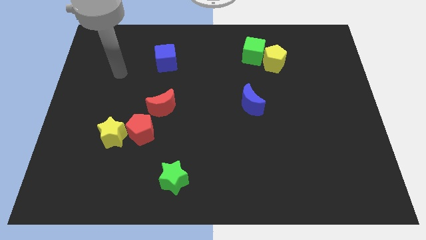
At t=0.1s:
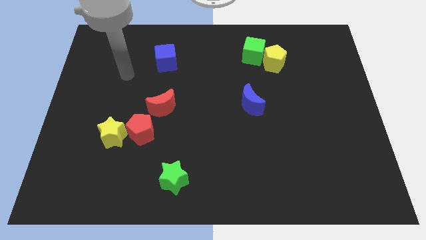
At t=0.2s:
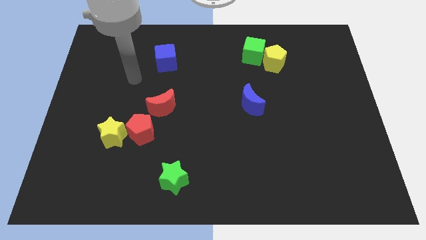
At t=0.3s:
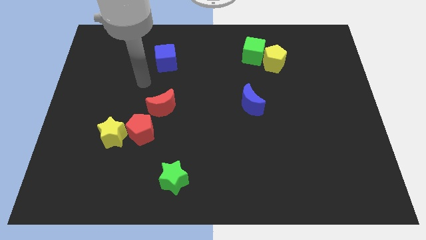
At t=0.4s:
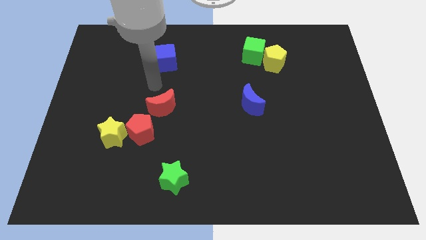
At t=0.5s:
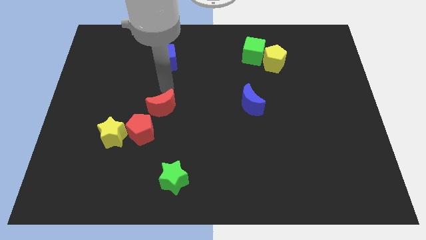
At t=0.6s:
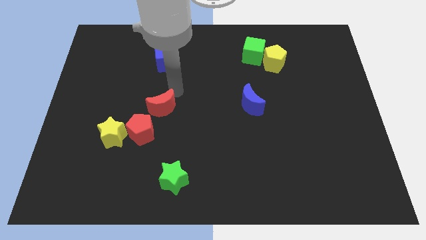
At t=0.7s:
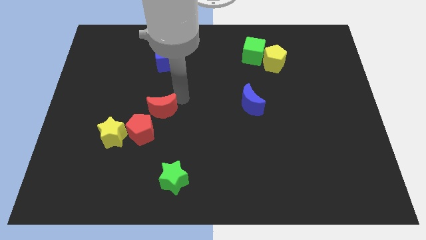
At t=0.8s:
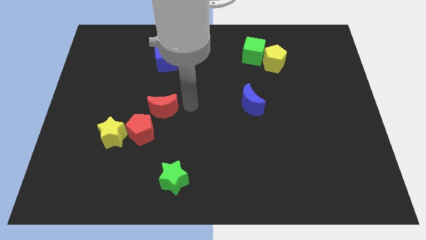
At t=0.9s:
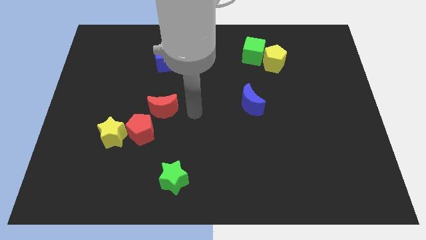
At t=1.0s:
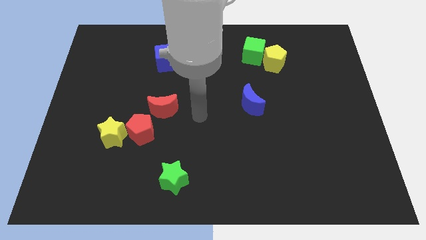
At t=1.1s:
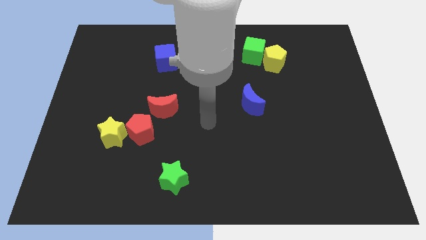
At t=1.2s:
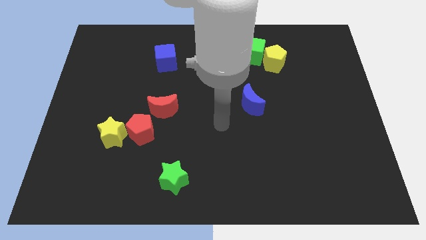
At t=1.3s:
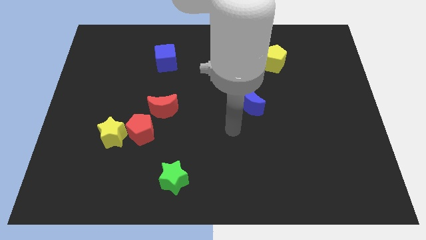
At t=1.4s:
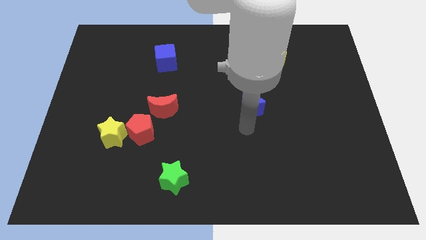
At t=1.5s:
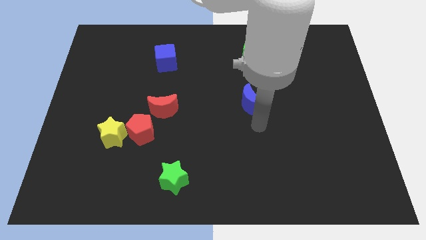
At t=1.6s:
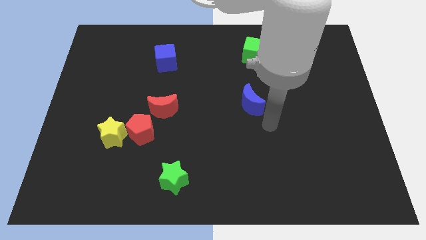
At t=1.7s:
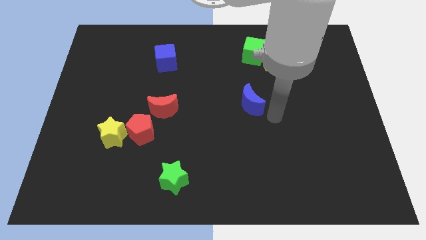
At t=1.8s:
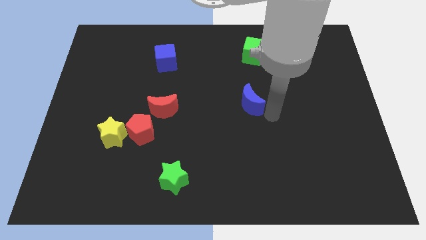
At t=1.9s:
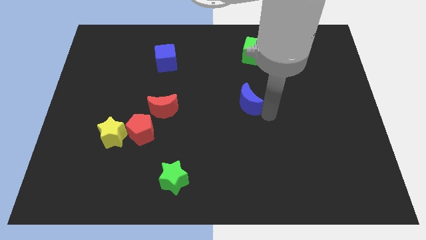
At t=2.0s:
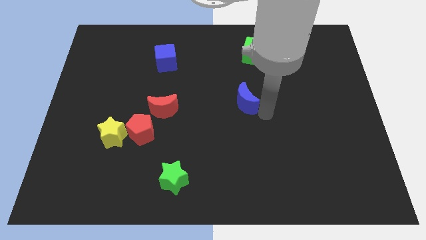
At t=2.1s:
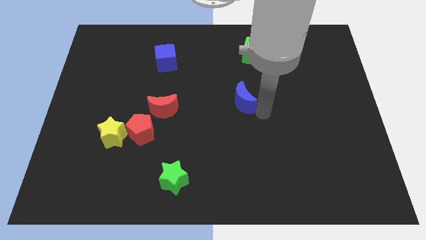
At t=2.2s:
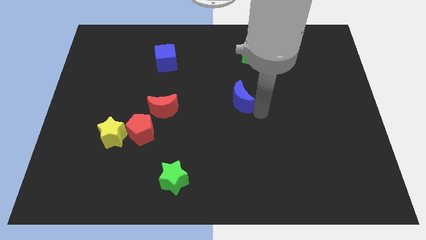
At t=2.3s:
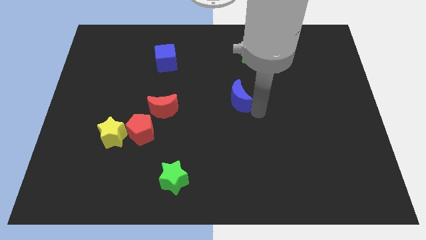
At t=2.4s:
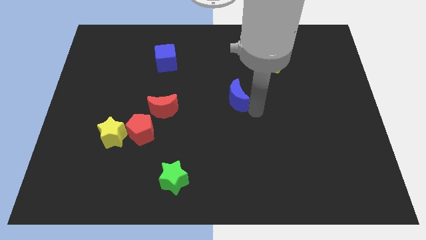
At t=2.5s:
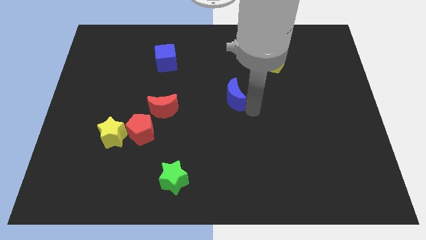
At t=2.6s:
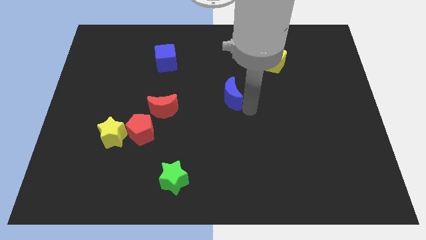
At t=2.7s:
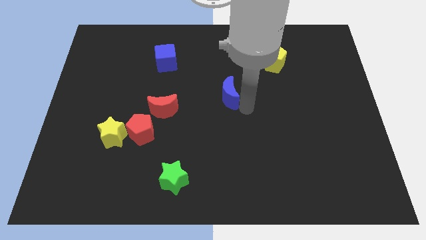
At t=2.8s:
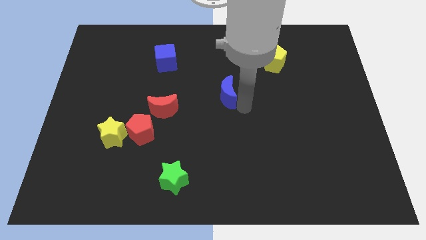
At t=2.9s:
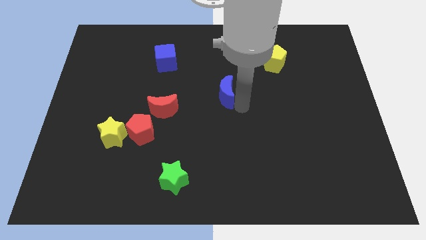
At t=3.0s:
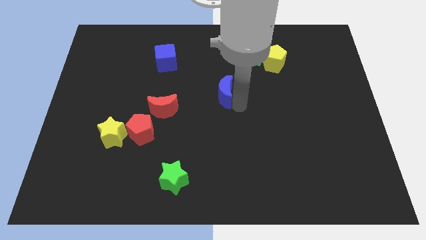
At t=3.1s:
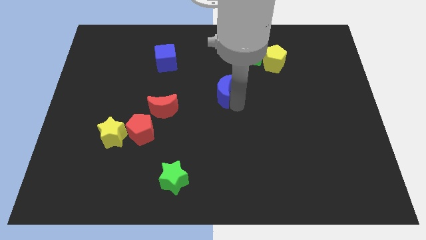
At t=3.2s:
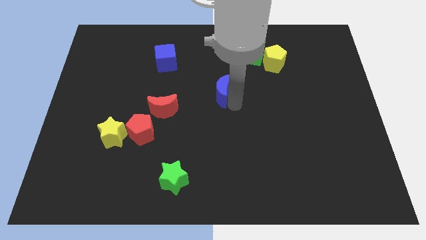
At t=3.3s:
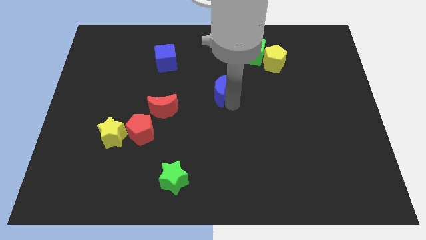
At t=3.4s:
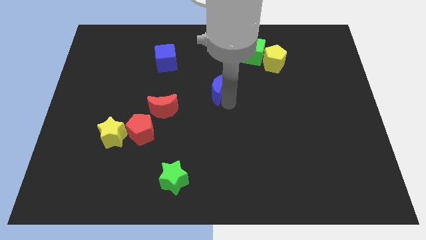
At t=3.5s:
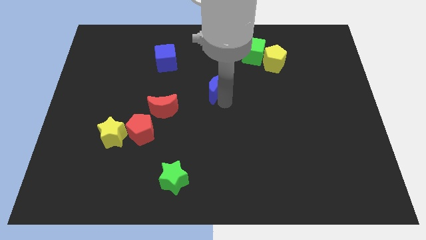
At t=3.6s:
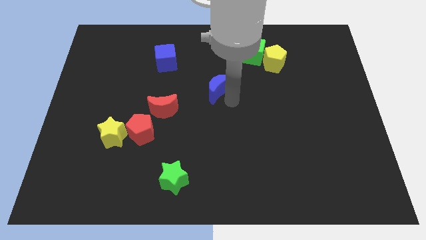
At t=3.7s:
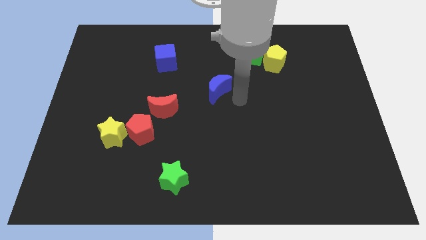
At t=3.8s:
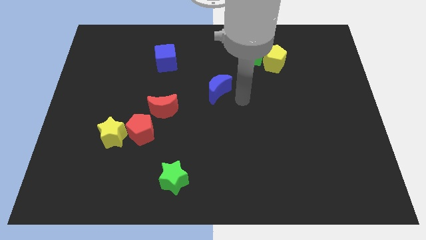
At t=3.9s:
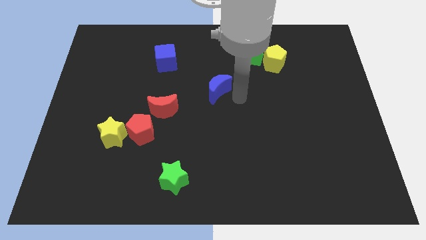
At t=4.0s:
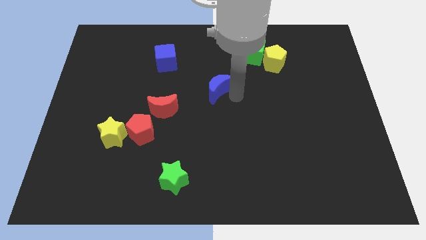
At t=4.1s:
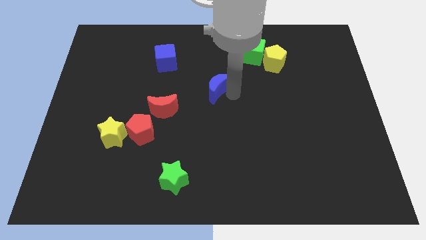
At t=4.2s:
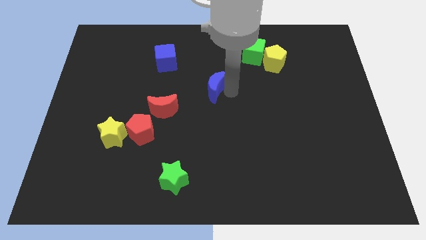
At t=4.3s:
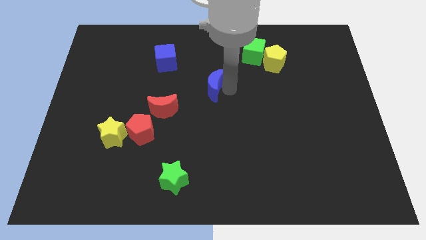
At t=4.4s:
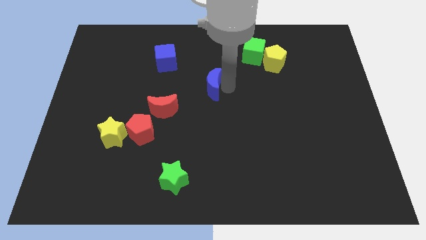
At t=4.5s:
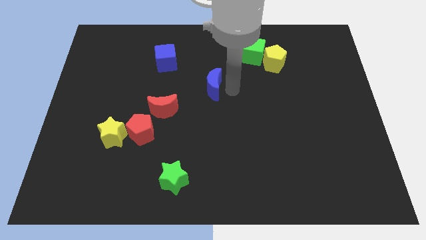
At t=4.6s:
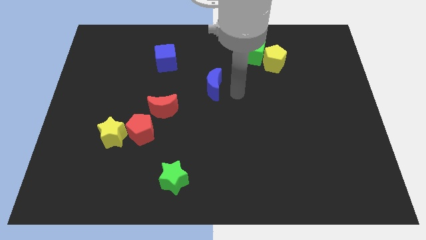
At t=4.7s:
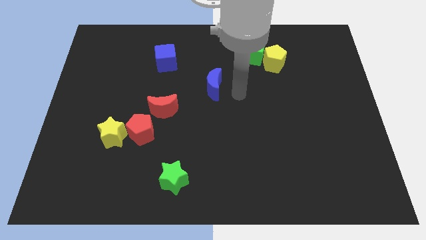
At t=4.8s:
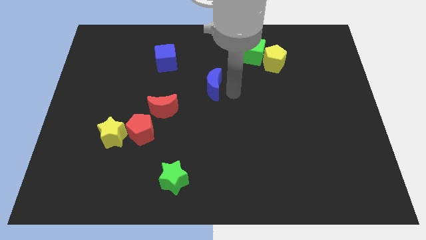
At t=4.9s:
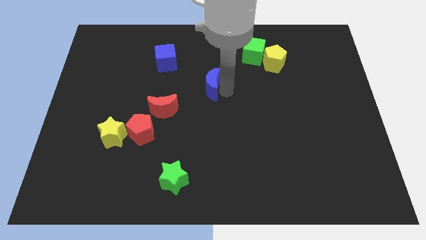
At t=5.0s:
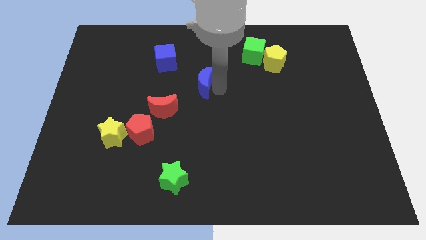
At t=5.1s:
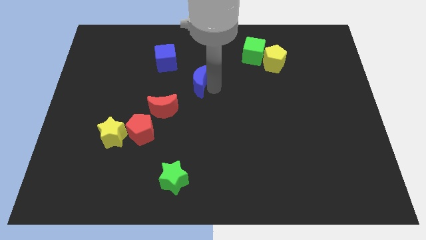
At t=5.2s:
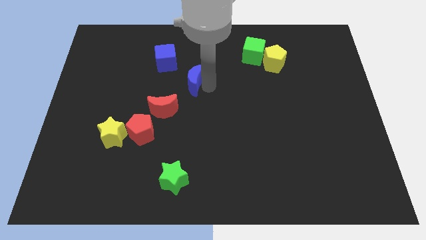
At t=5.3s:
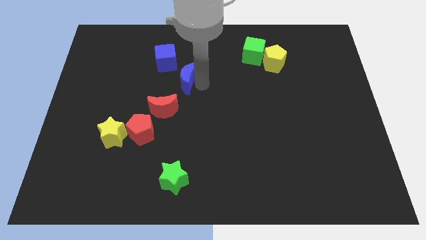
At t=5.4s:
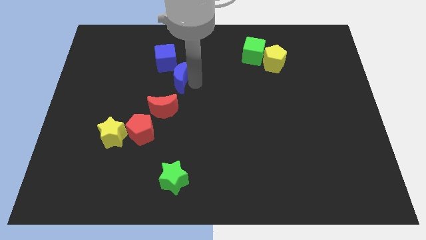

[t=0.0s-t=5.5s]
put the blue moon above the red moon

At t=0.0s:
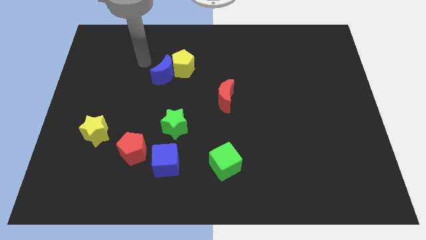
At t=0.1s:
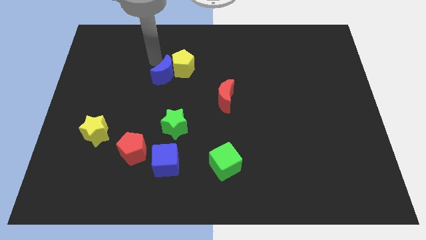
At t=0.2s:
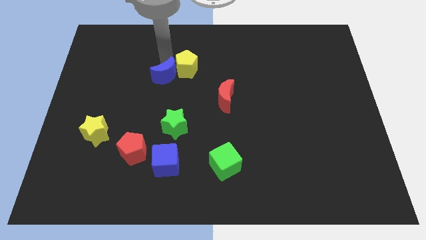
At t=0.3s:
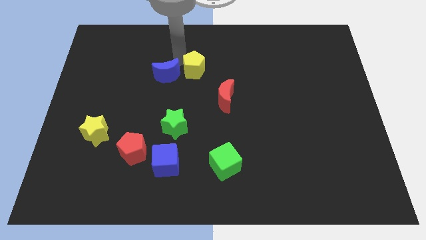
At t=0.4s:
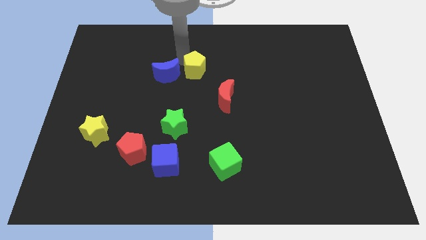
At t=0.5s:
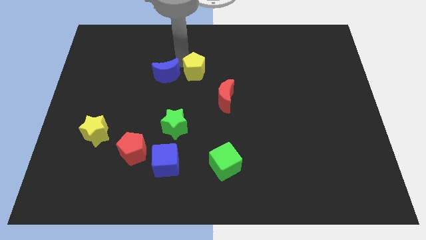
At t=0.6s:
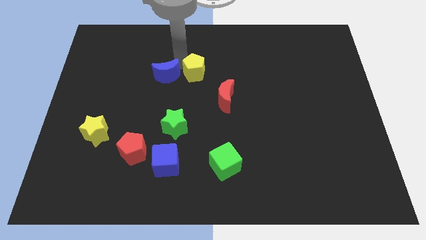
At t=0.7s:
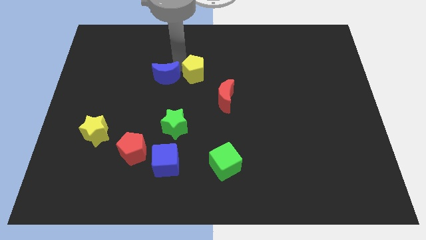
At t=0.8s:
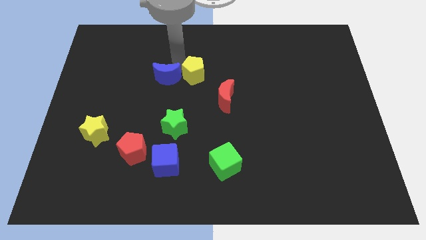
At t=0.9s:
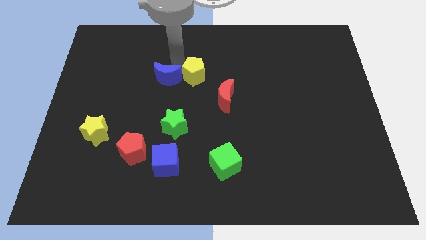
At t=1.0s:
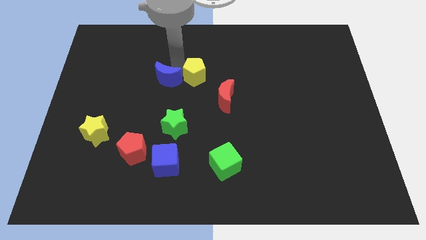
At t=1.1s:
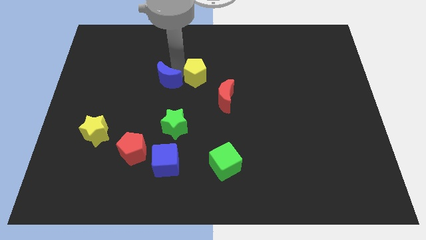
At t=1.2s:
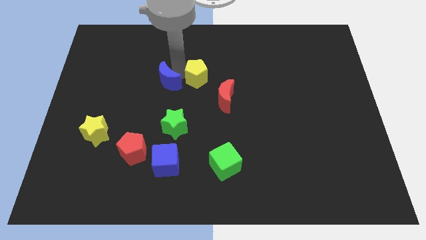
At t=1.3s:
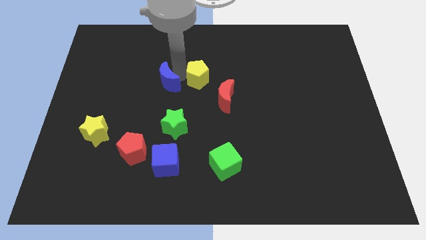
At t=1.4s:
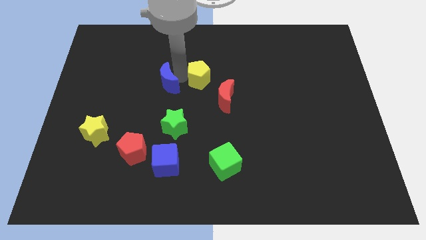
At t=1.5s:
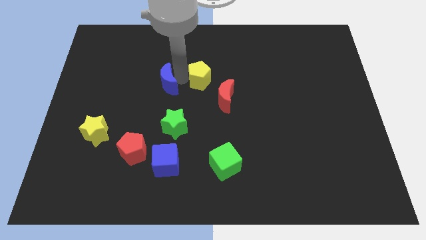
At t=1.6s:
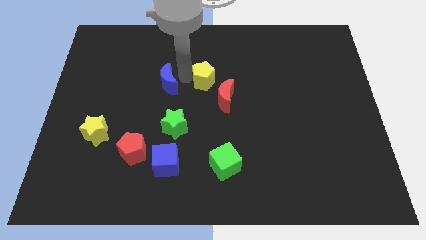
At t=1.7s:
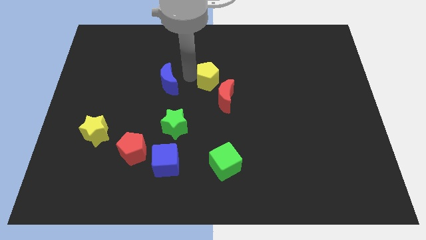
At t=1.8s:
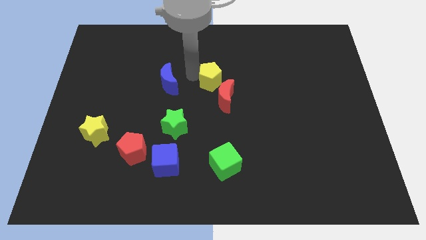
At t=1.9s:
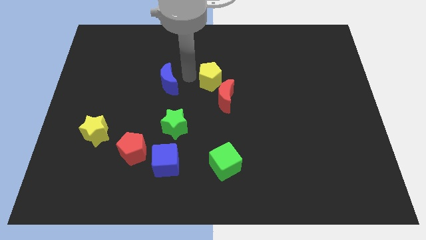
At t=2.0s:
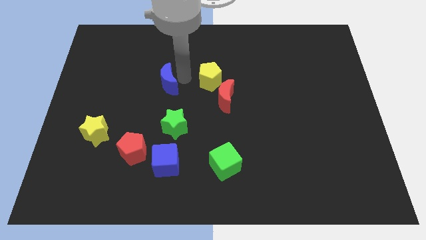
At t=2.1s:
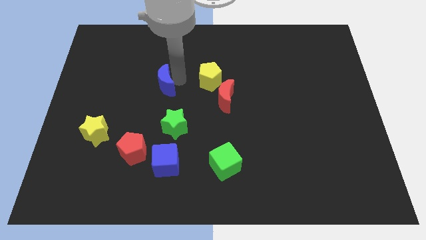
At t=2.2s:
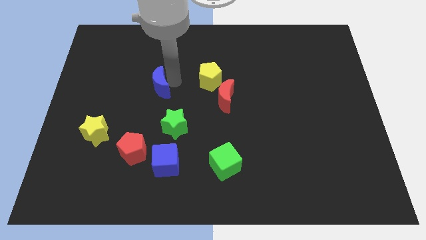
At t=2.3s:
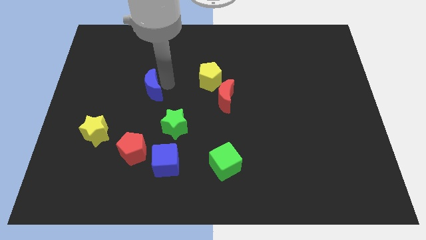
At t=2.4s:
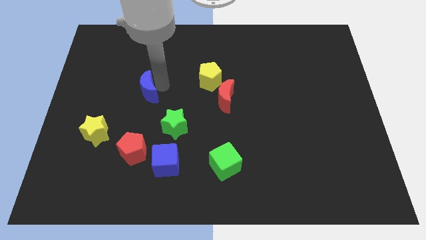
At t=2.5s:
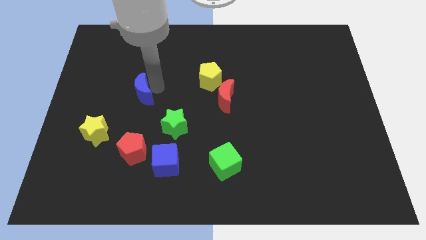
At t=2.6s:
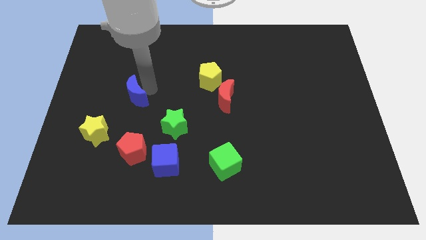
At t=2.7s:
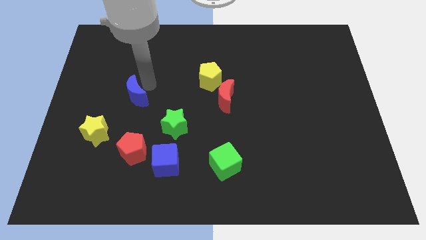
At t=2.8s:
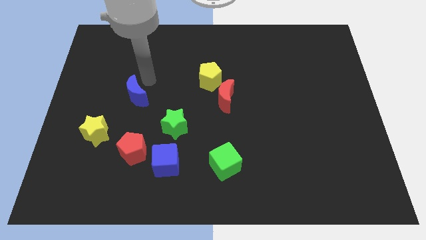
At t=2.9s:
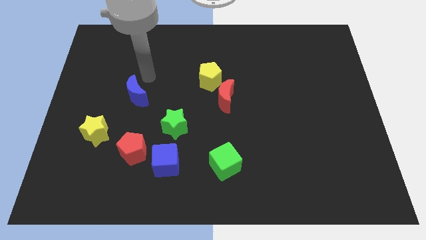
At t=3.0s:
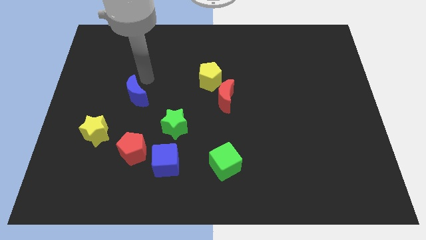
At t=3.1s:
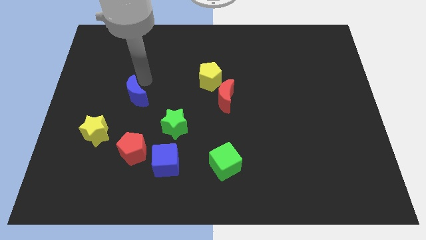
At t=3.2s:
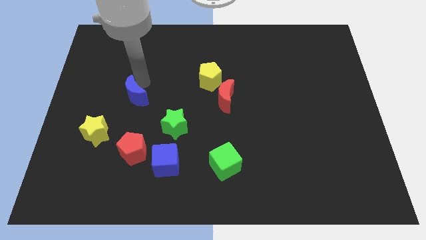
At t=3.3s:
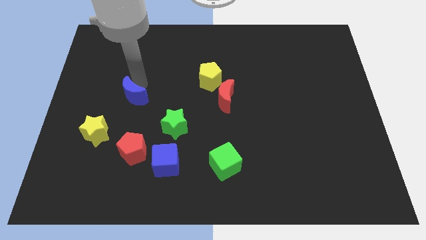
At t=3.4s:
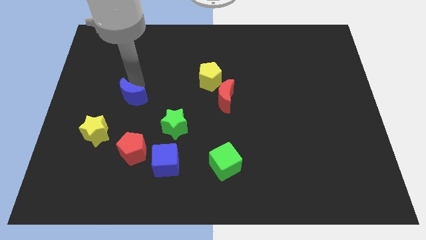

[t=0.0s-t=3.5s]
move the blue moon to the top right of the yellow star
